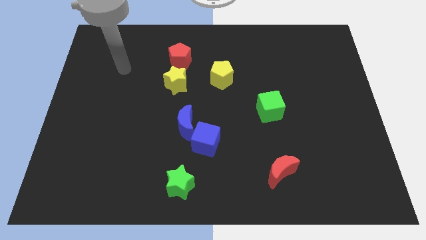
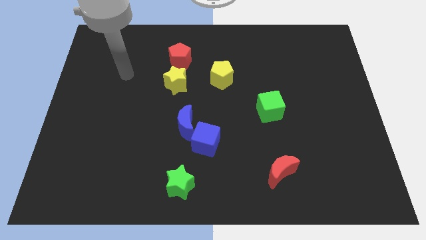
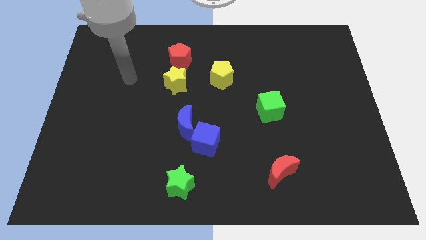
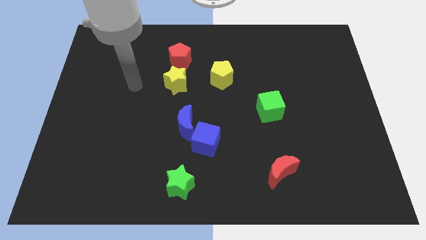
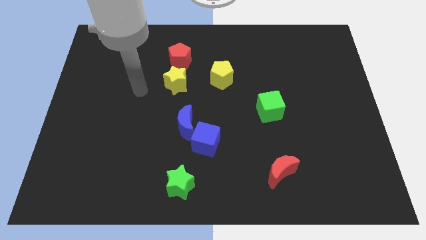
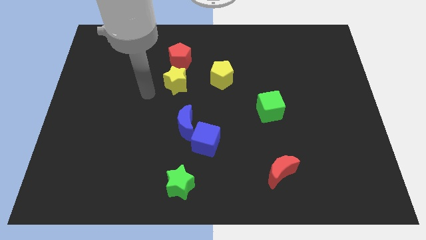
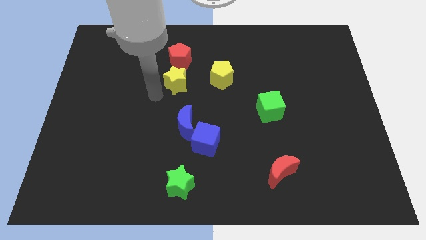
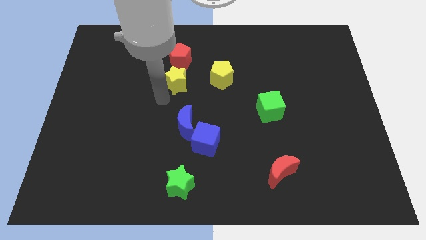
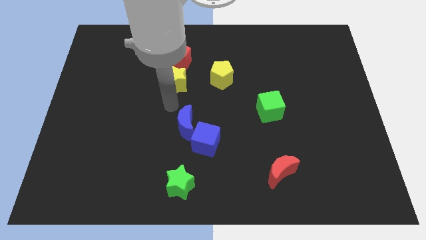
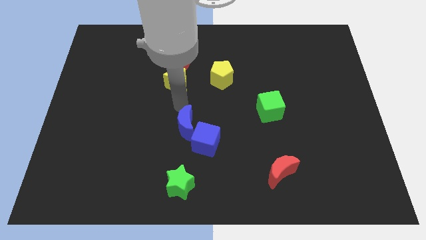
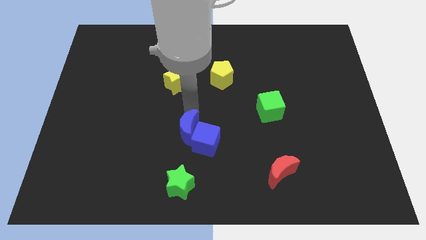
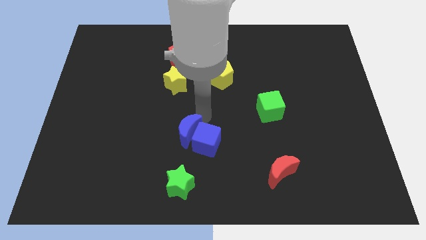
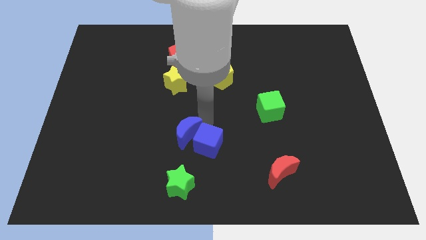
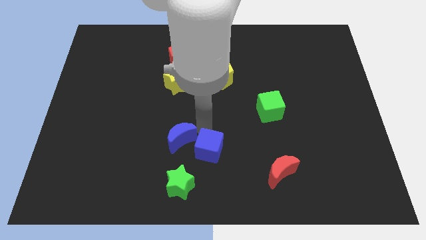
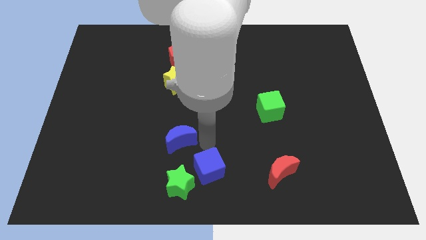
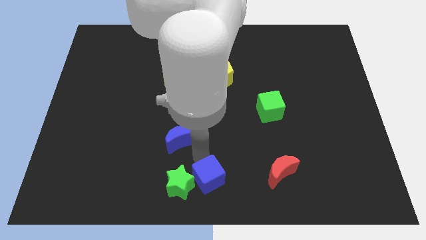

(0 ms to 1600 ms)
separate the blue moon from the blue cube

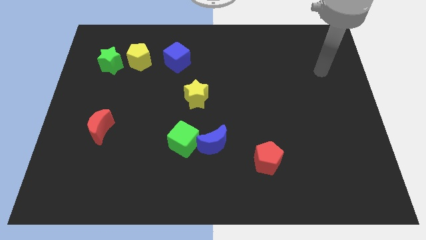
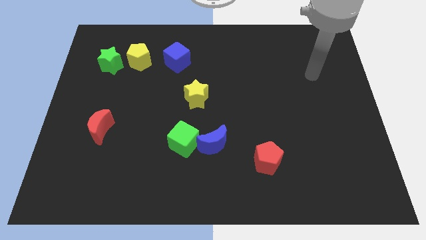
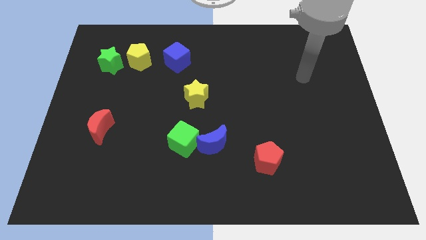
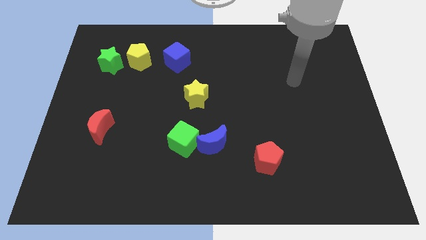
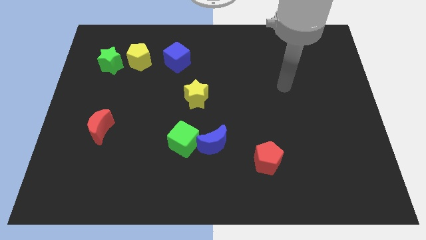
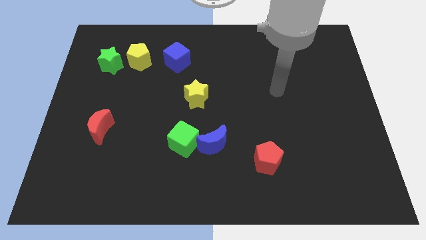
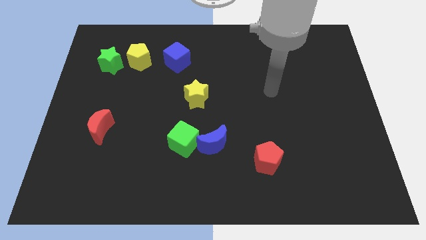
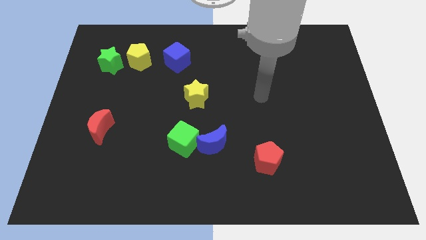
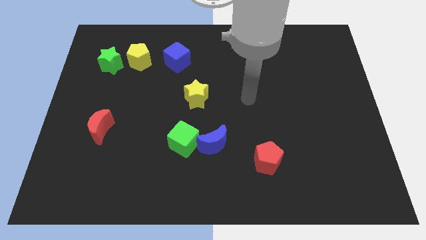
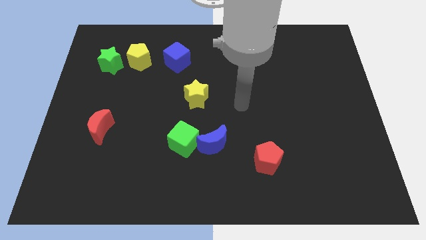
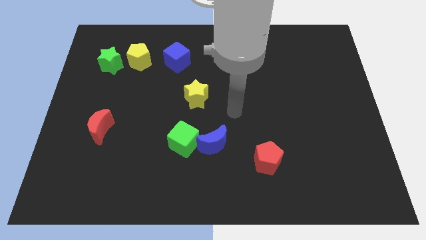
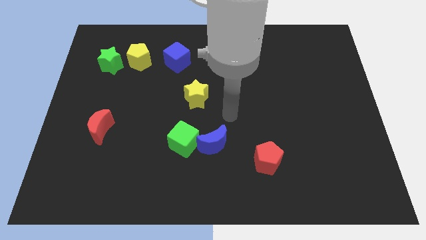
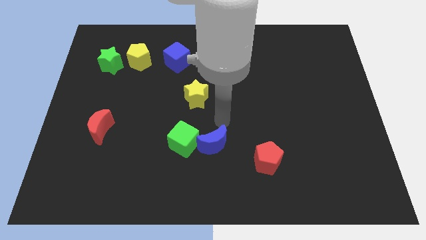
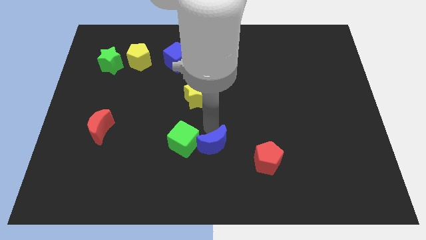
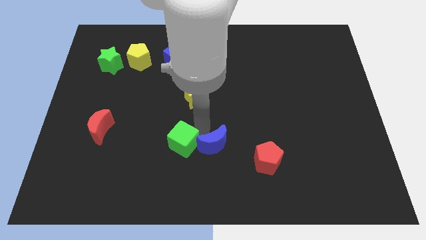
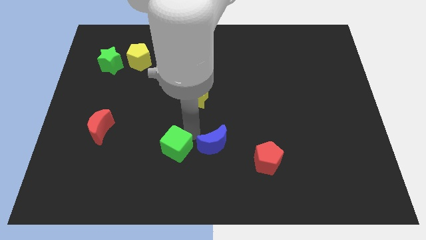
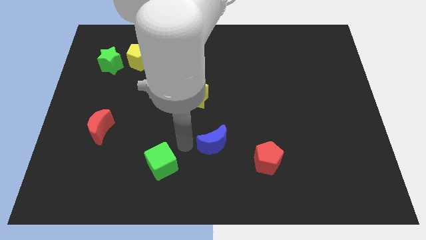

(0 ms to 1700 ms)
separate the blue moon from the green cube

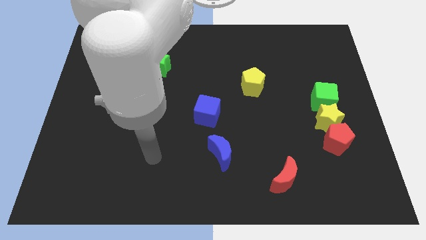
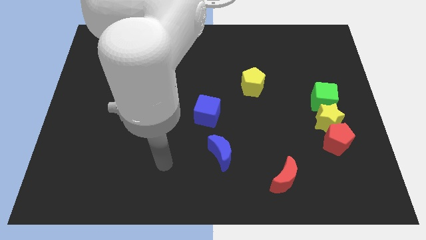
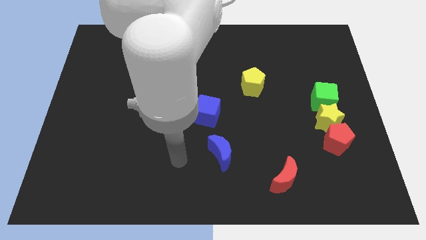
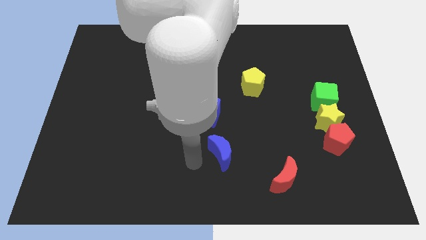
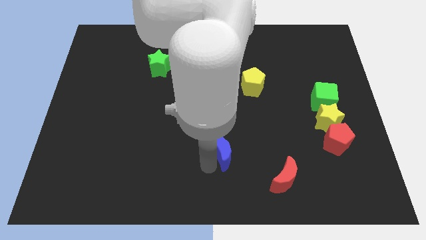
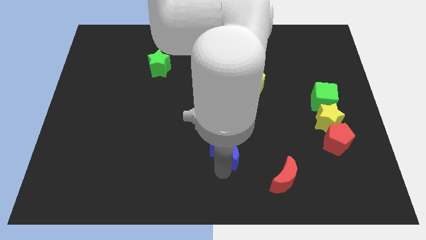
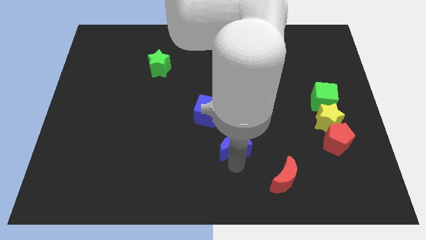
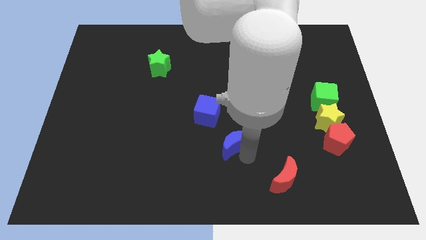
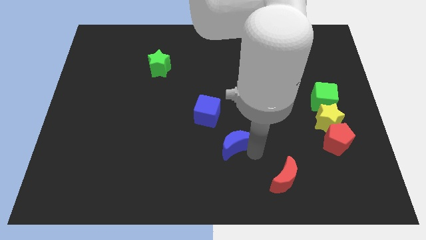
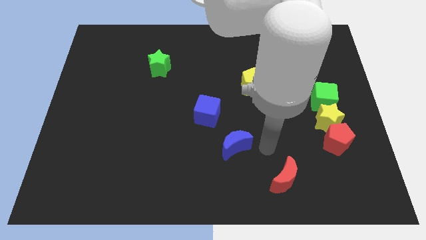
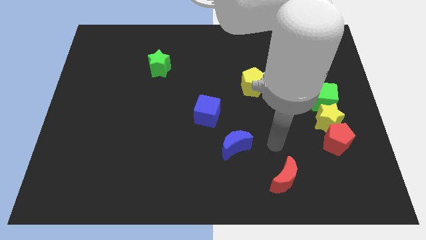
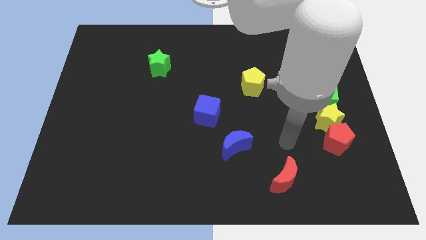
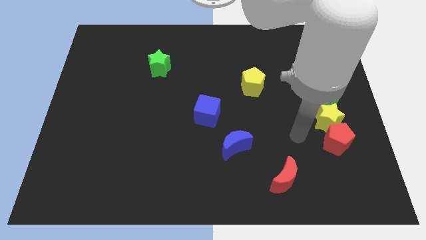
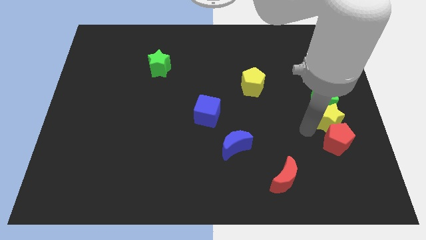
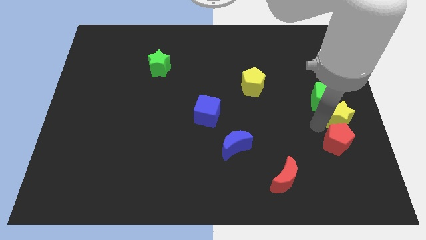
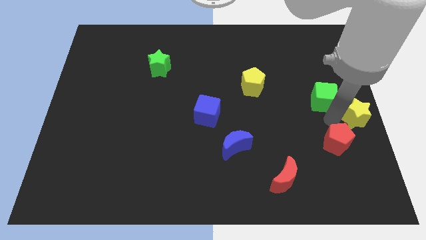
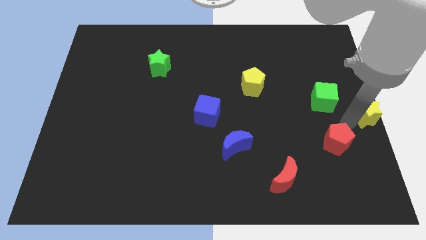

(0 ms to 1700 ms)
move the red pentagon away from the yellow star

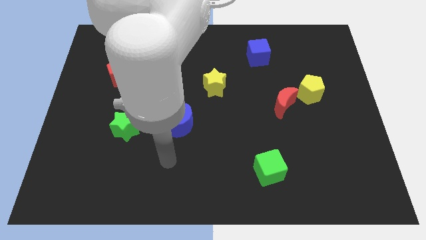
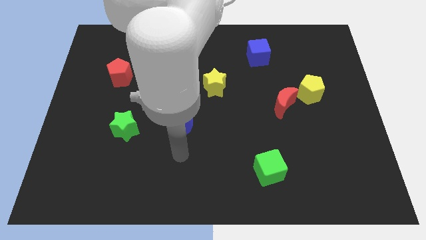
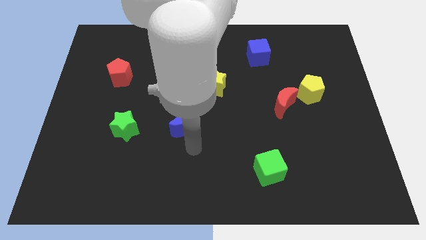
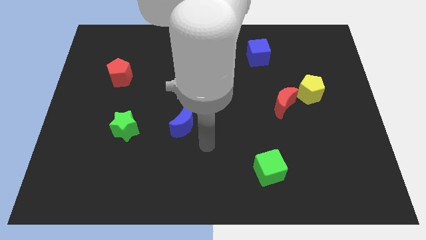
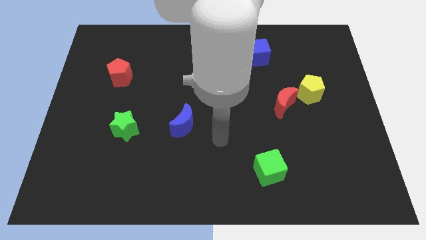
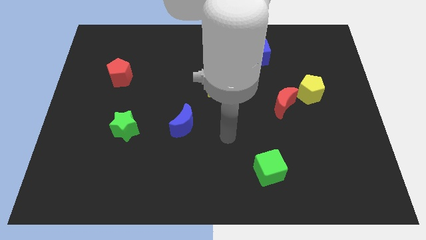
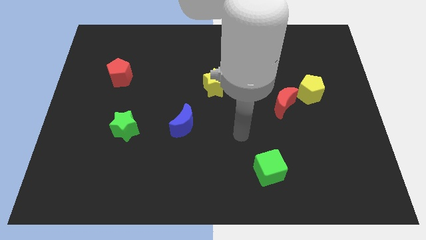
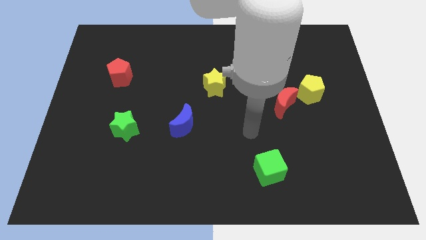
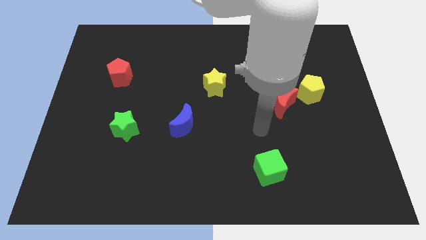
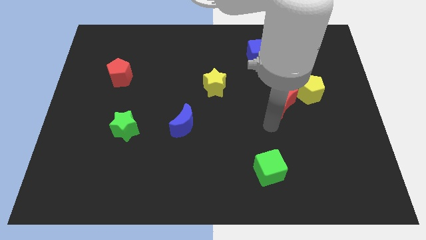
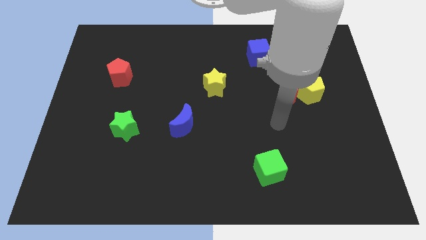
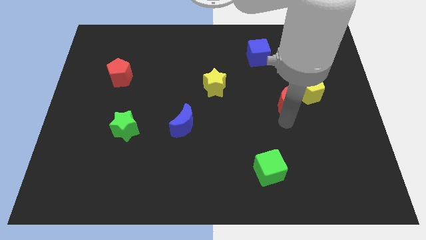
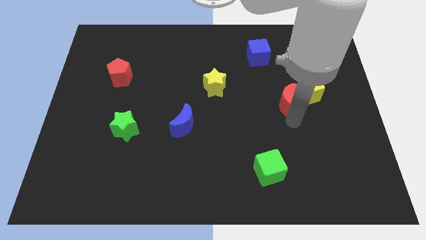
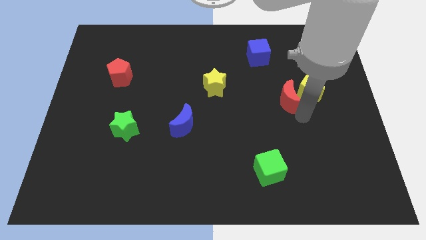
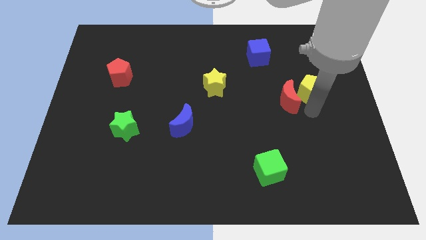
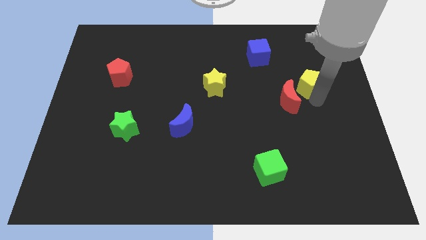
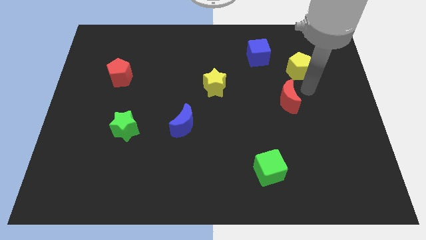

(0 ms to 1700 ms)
separate the red moon from the yellow pentagon

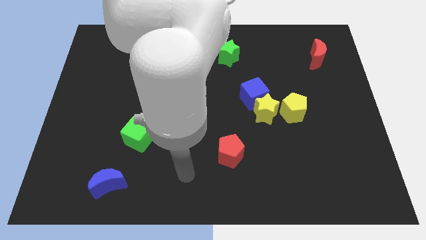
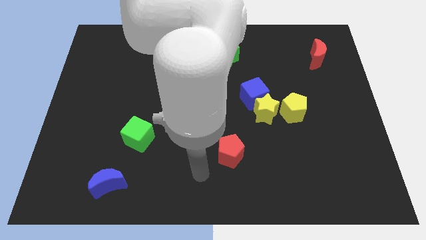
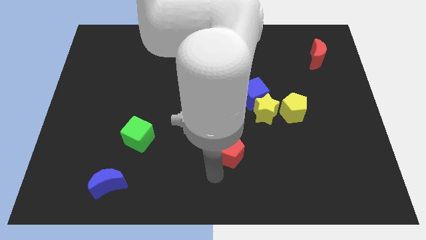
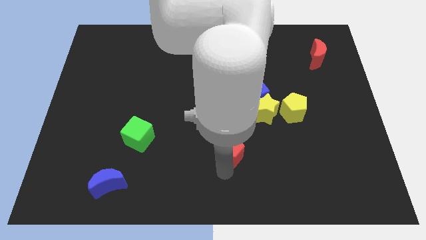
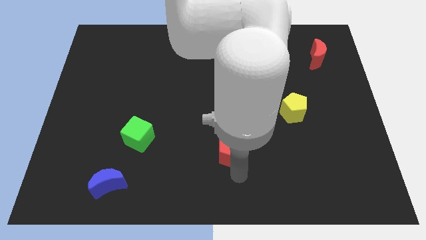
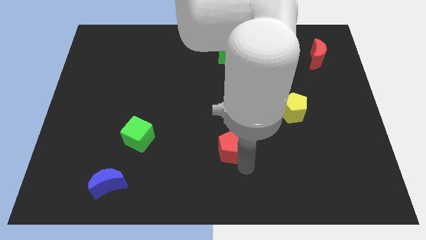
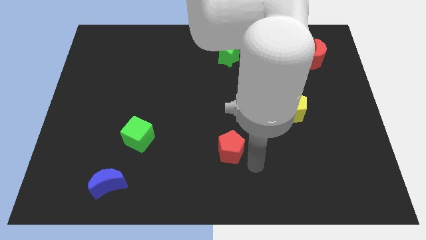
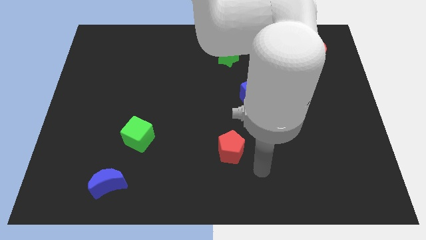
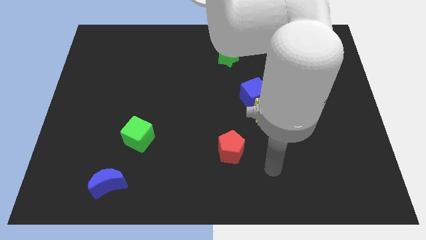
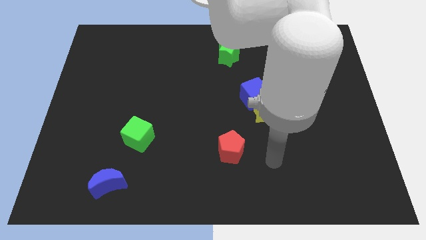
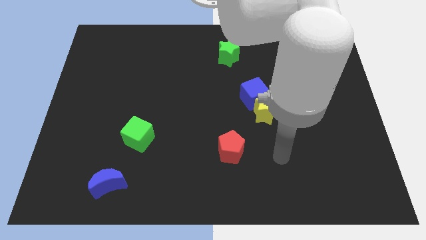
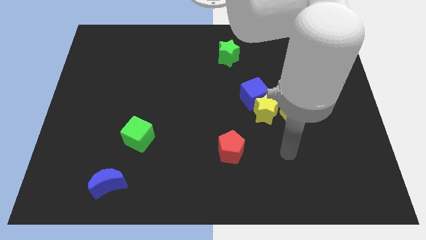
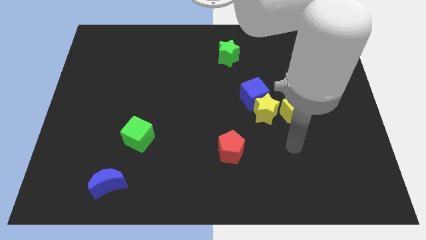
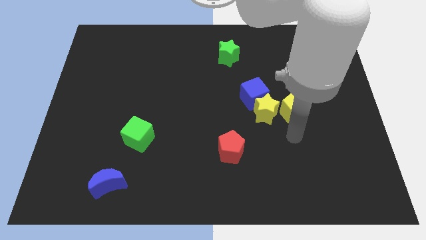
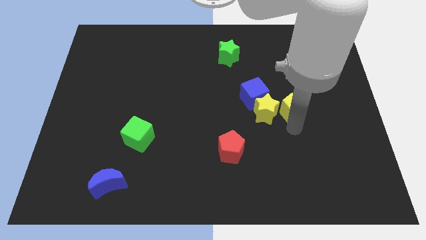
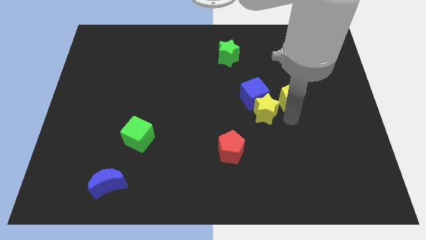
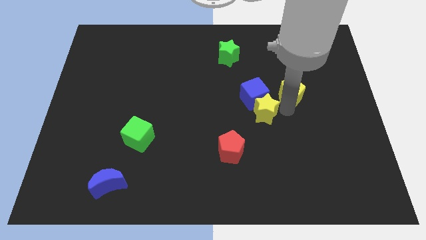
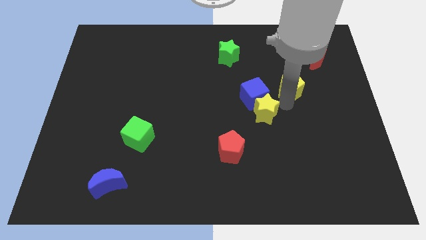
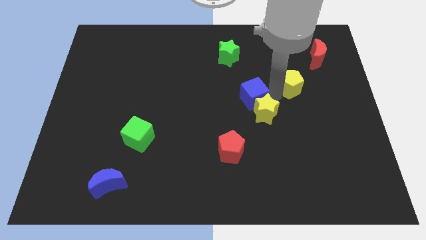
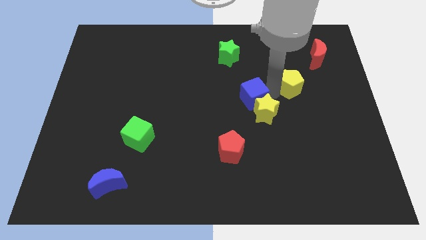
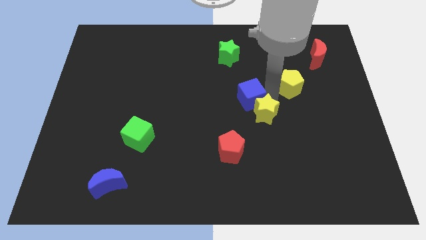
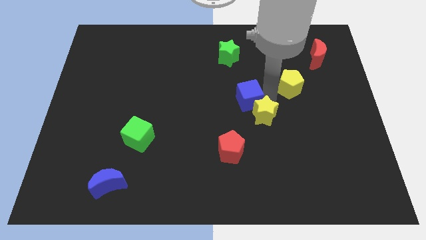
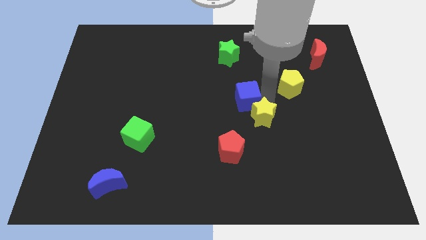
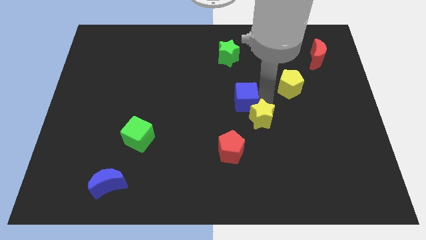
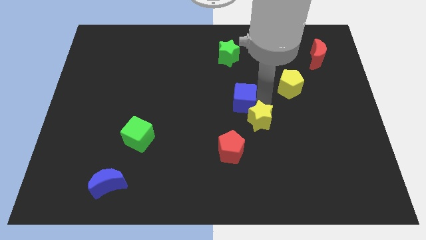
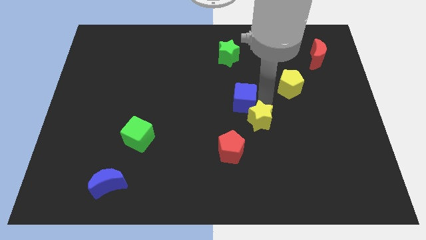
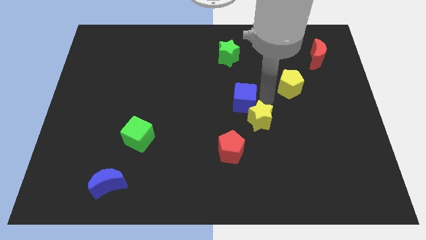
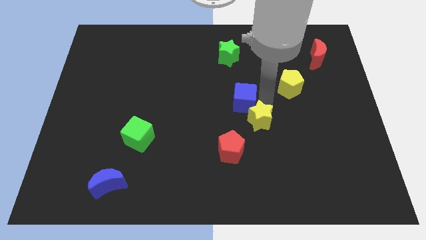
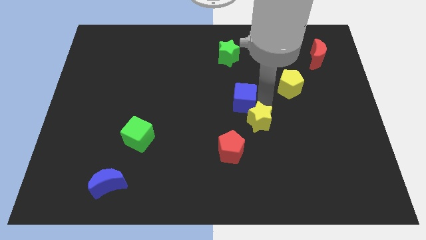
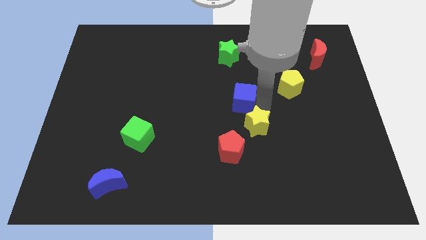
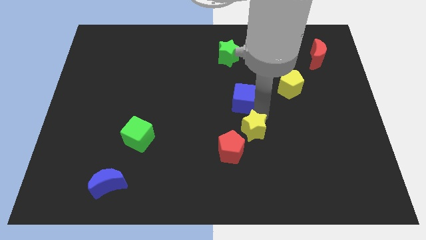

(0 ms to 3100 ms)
move the yellow star away from the blue cube and yellow pentagon
